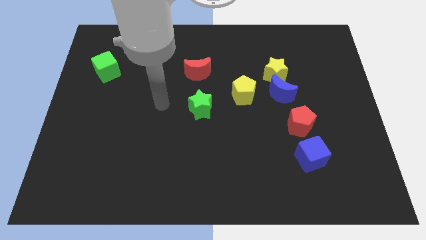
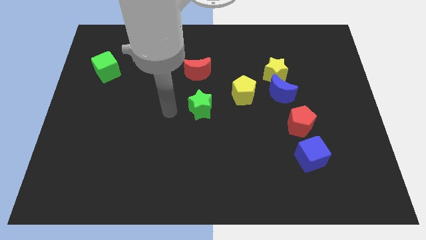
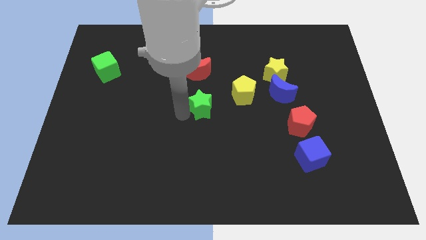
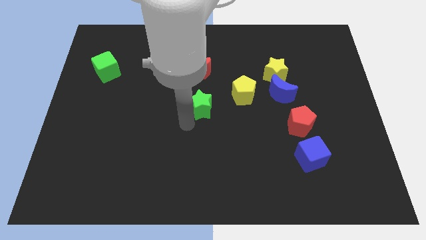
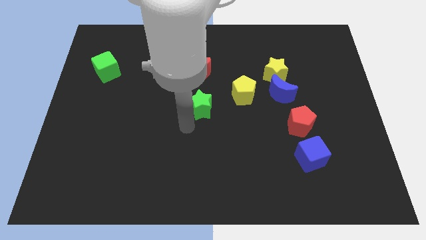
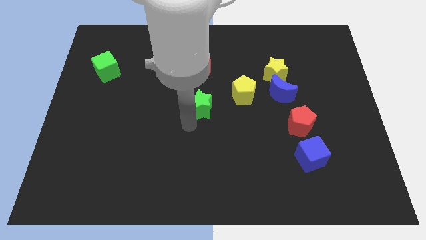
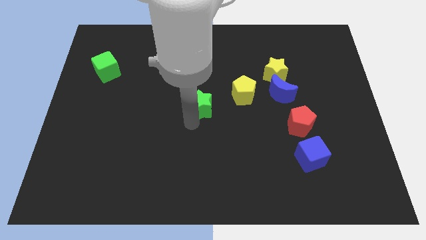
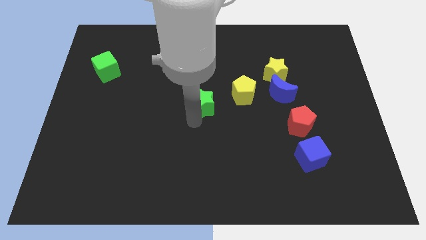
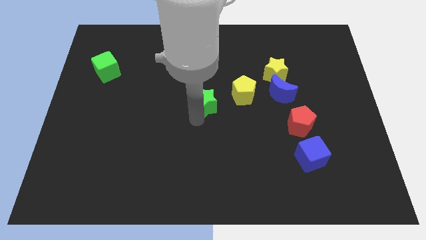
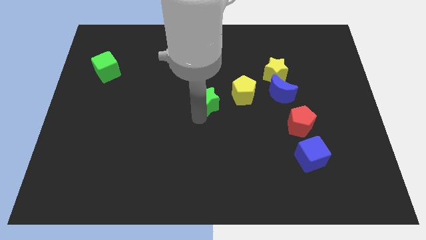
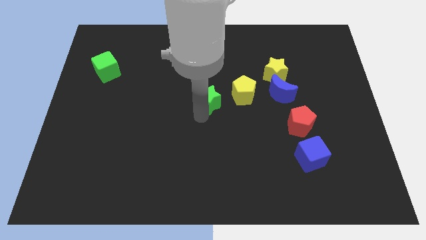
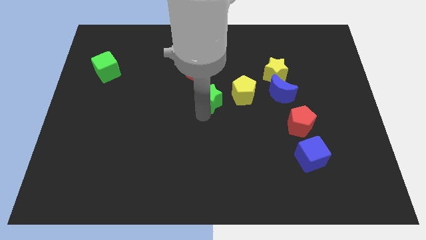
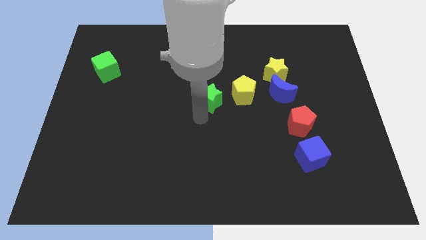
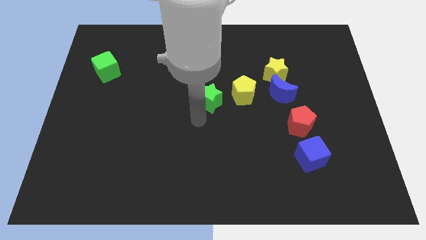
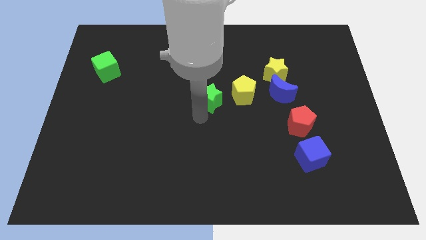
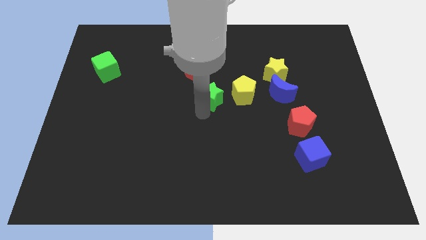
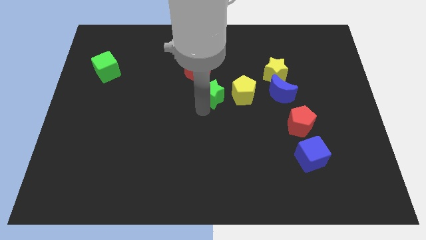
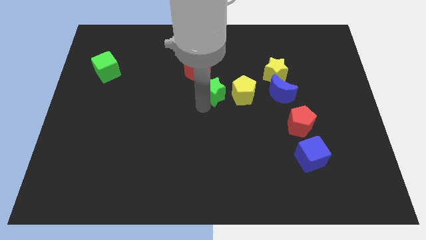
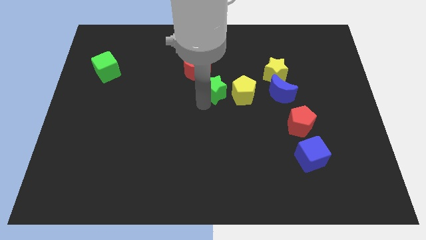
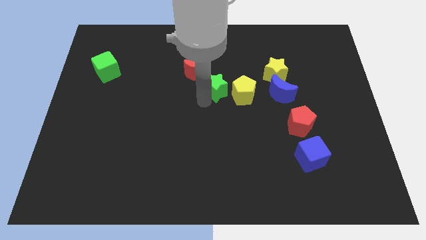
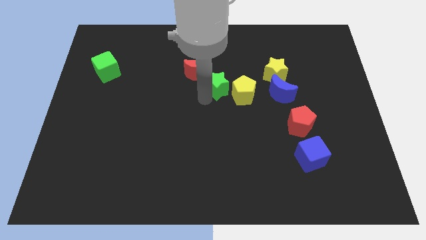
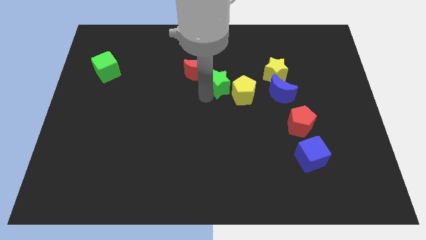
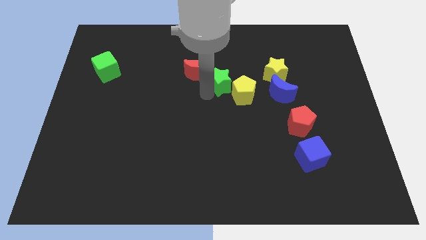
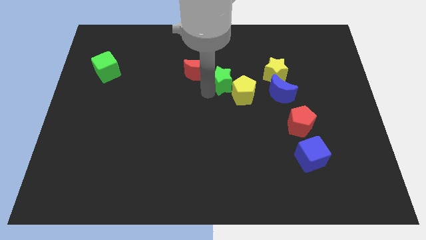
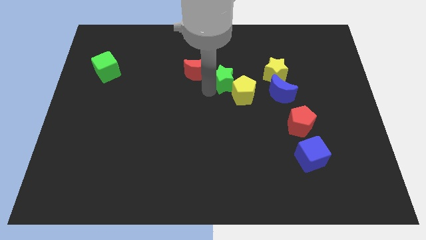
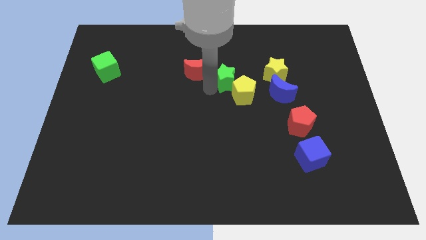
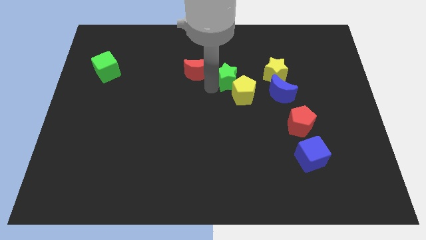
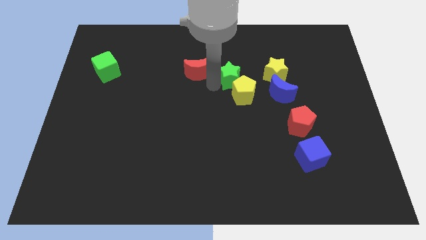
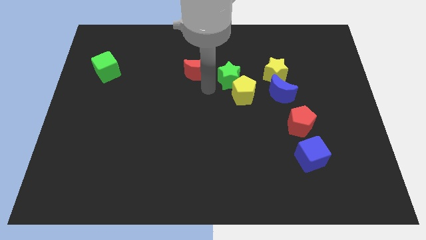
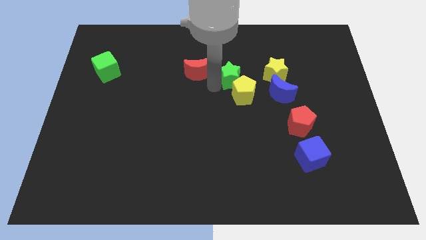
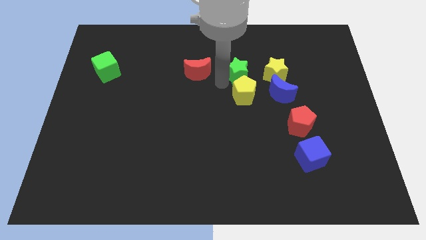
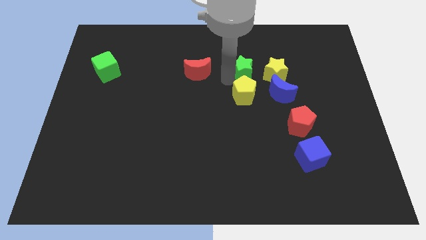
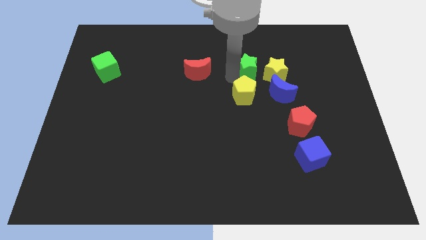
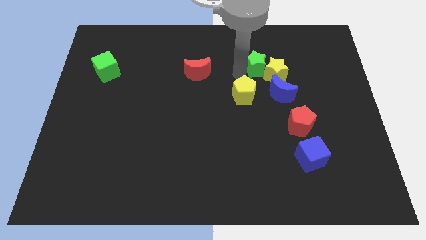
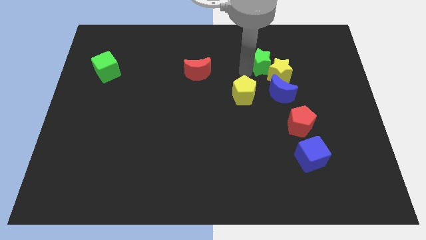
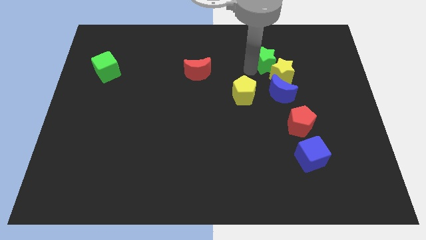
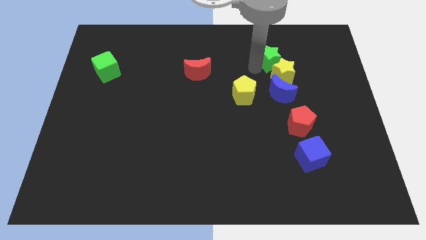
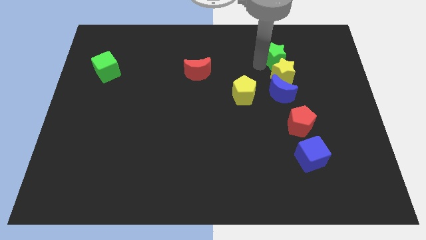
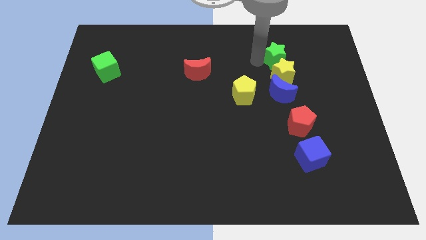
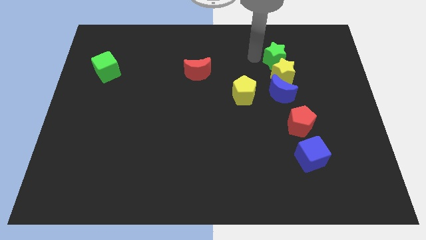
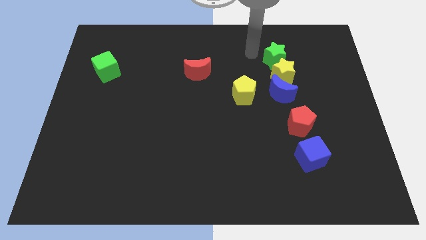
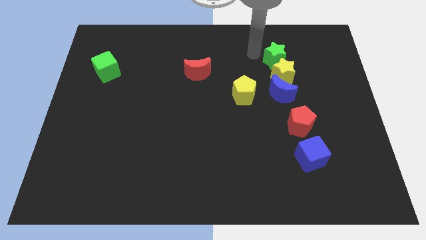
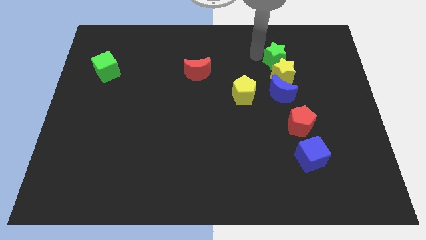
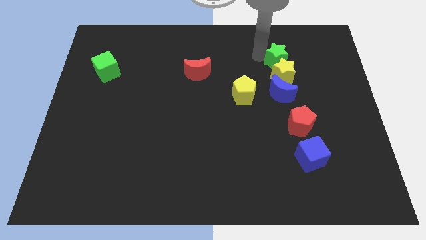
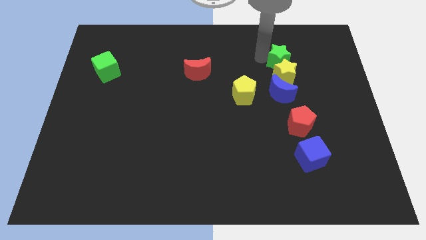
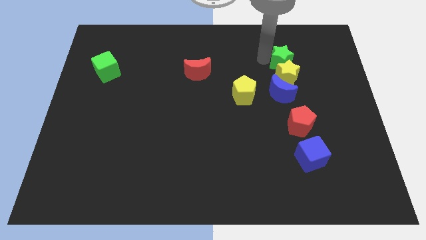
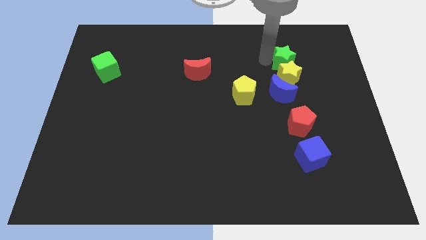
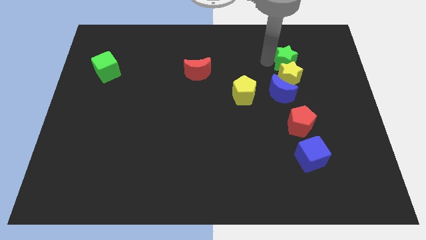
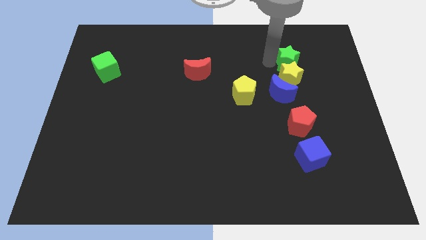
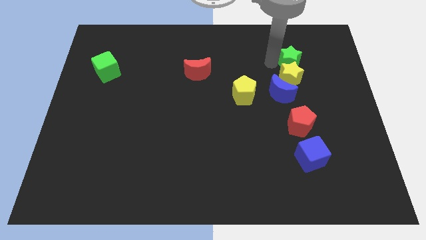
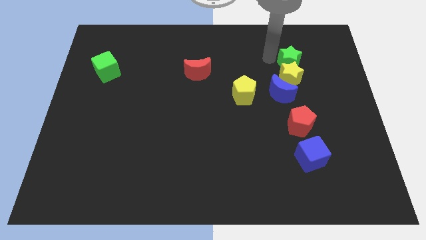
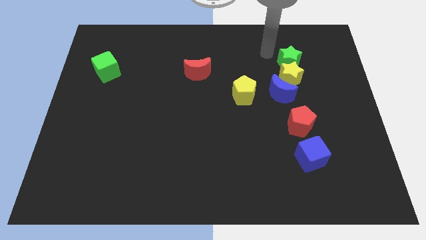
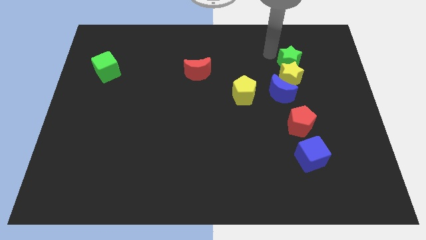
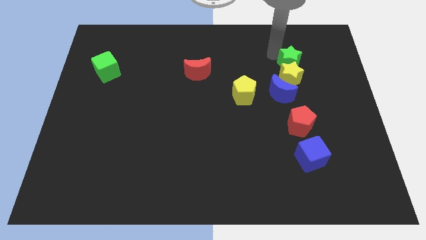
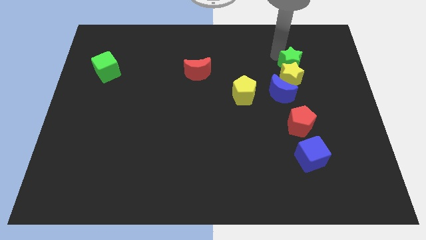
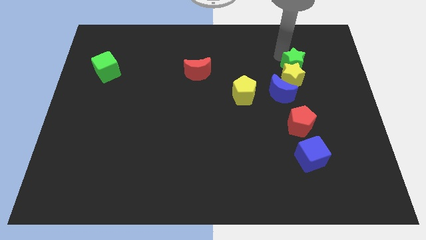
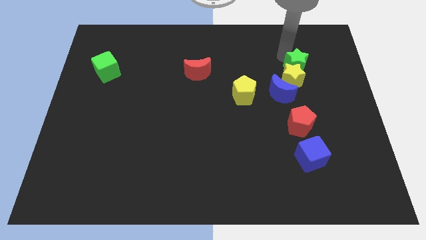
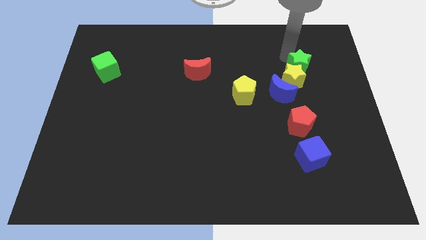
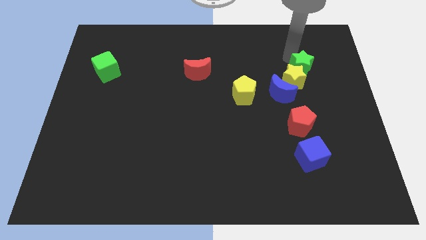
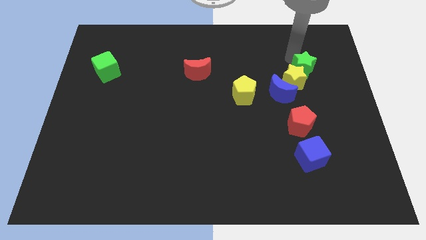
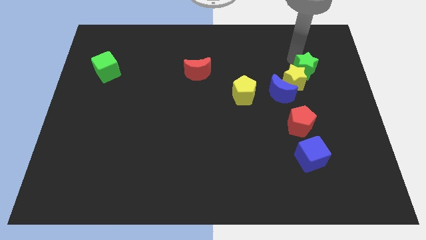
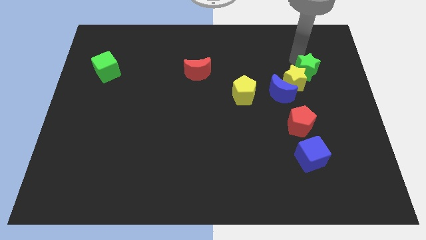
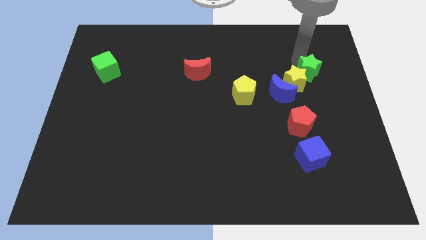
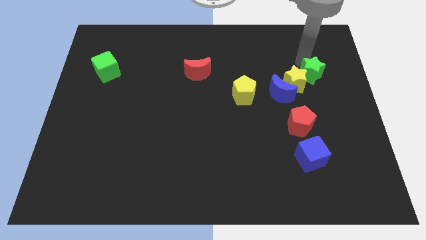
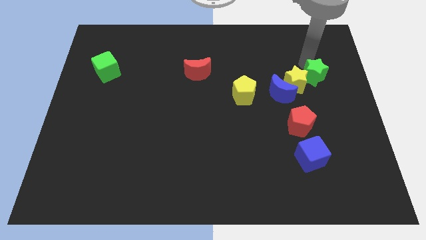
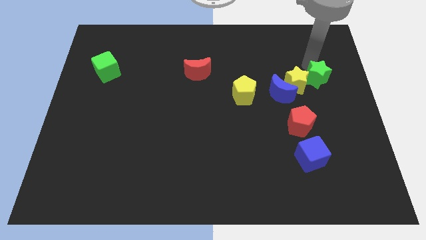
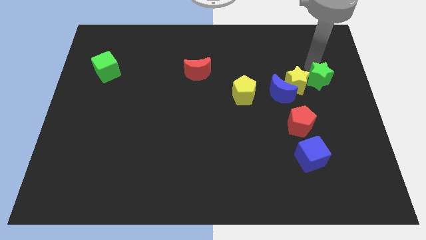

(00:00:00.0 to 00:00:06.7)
put the green star to the center right

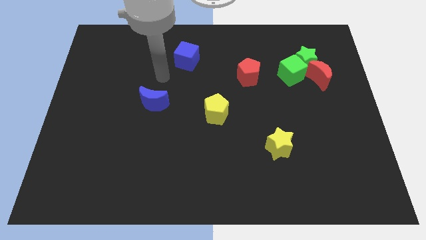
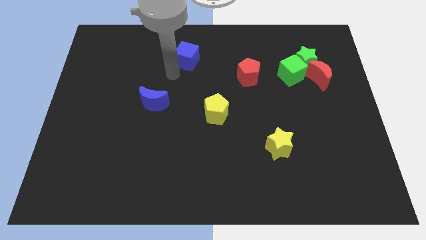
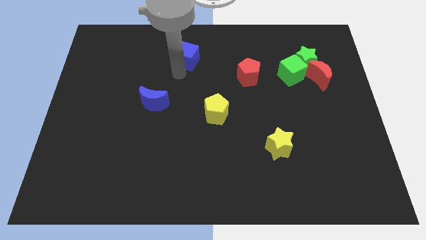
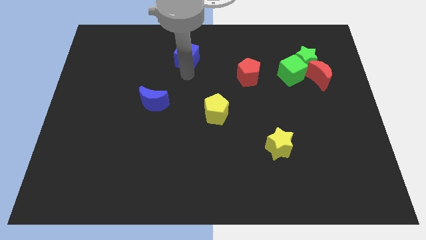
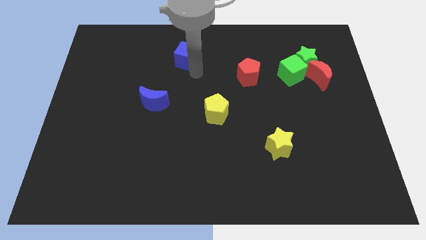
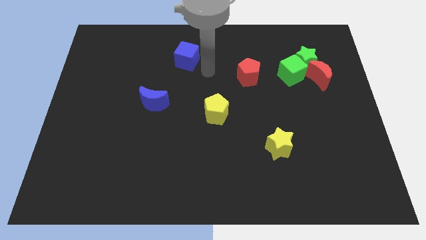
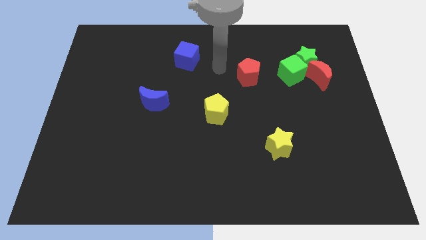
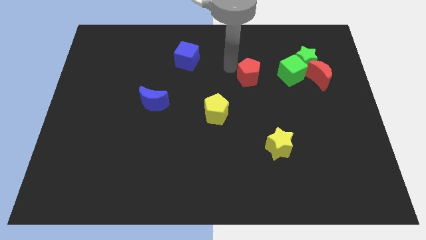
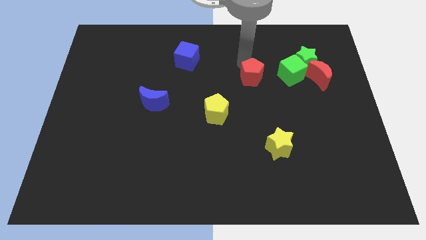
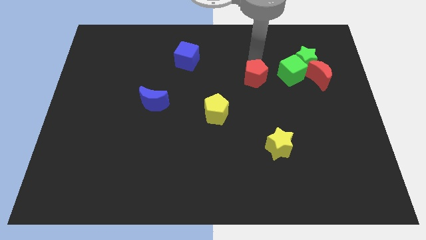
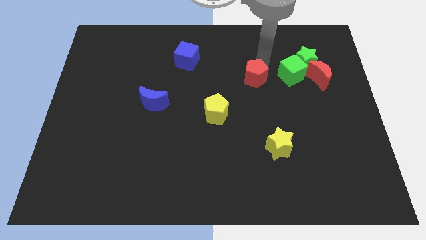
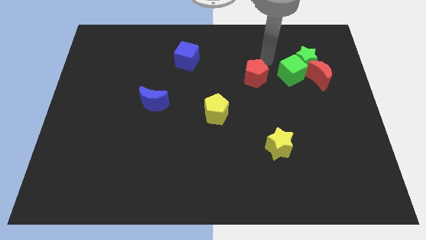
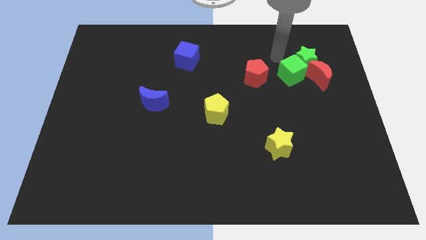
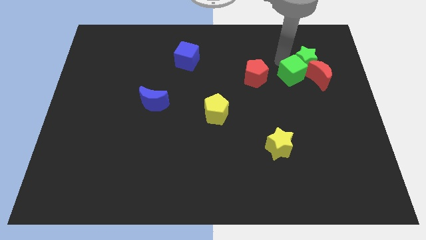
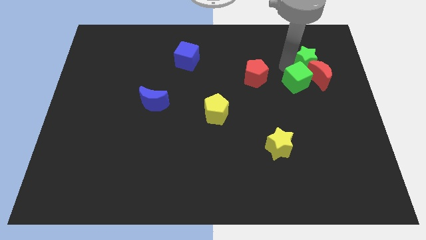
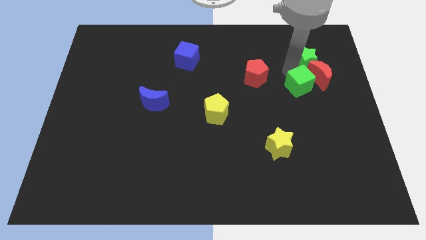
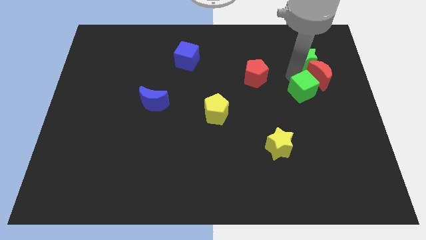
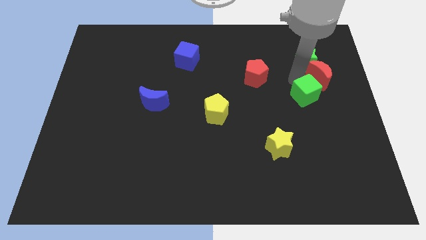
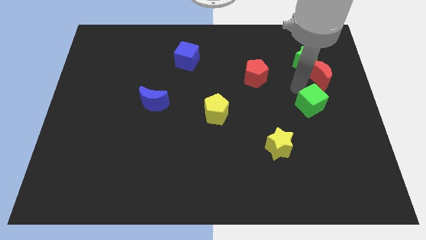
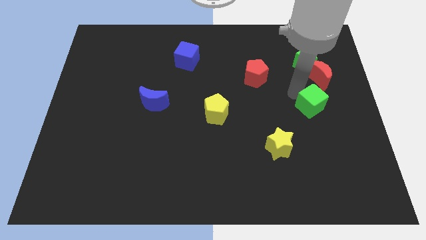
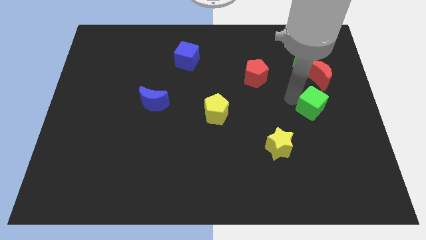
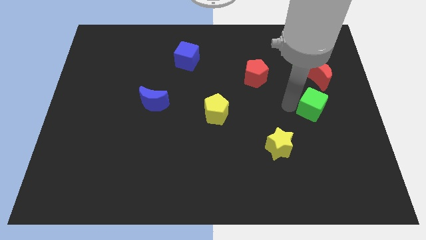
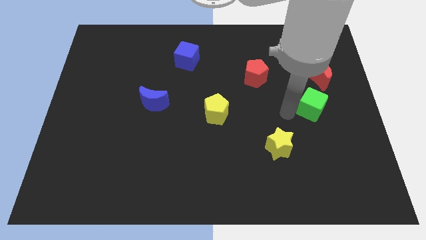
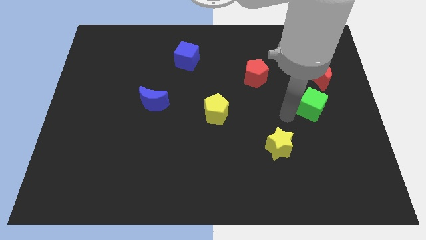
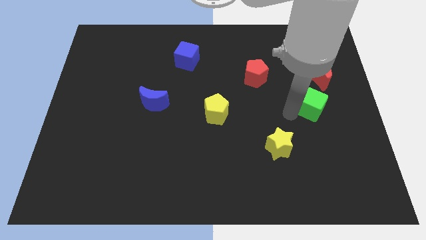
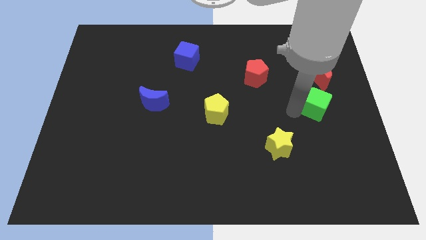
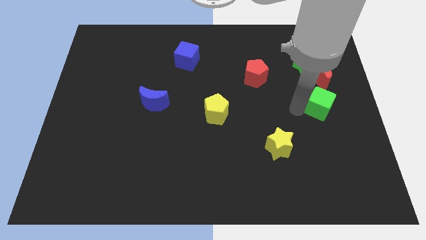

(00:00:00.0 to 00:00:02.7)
move the green cube to the right side
